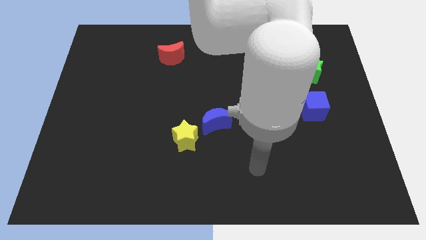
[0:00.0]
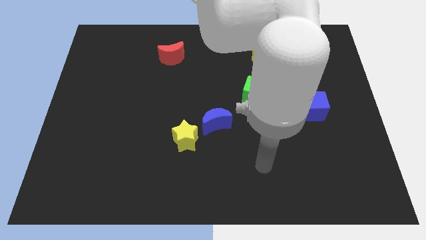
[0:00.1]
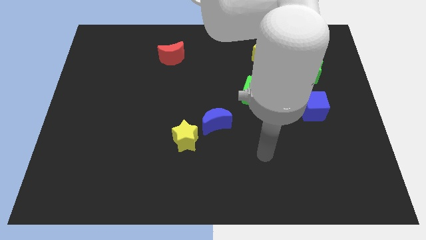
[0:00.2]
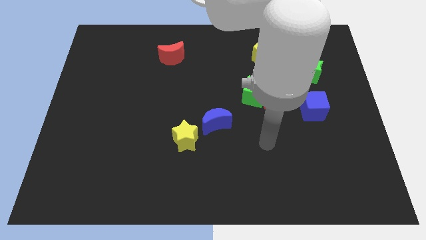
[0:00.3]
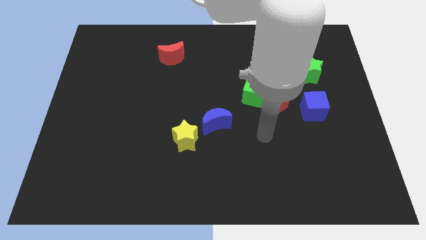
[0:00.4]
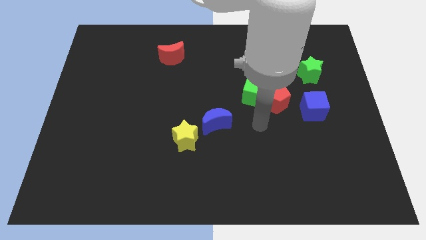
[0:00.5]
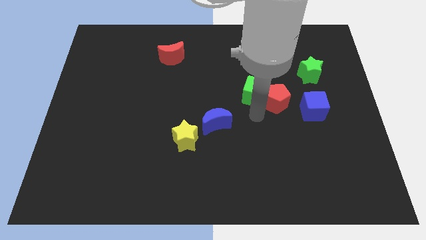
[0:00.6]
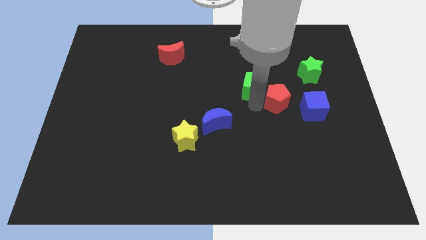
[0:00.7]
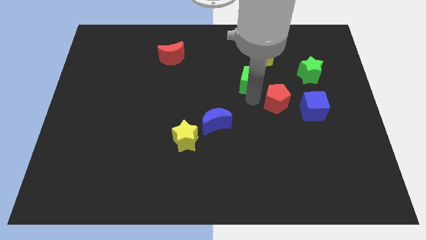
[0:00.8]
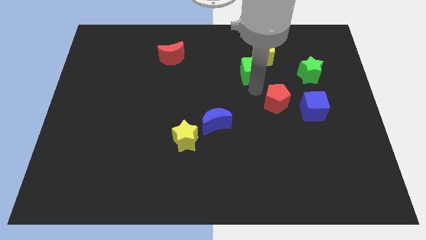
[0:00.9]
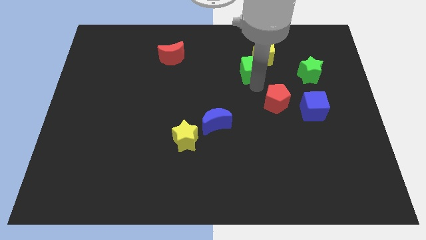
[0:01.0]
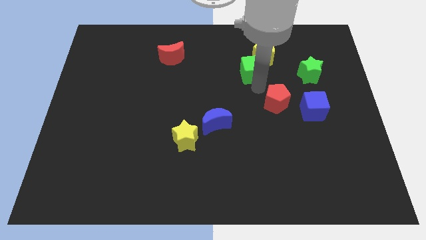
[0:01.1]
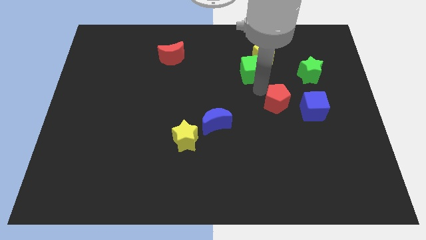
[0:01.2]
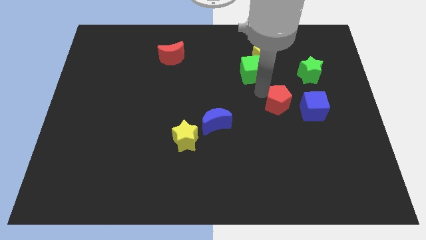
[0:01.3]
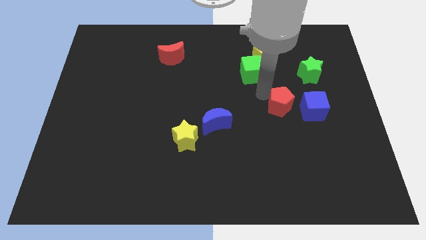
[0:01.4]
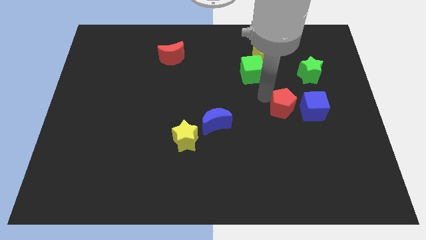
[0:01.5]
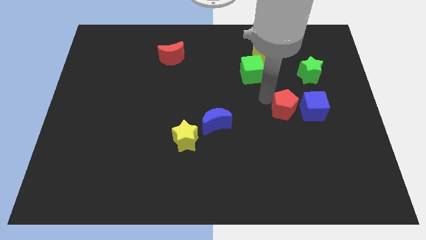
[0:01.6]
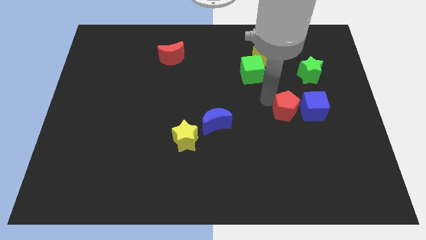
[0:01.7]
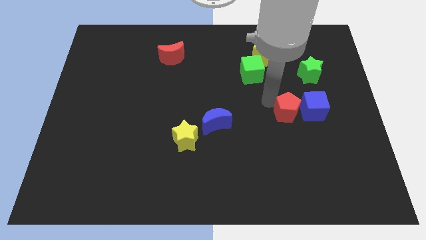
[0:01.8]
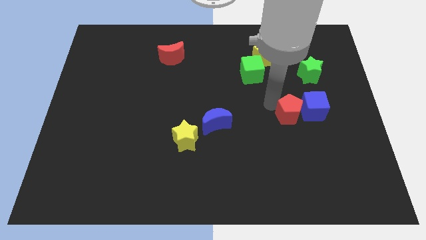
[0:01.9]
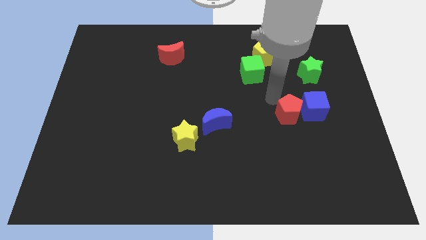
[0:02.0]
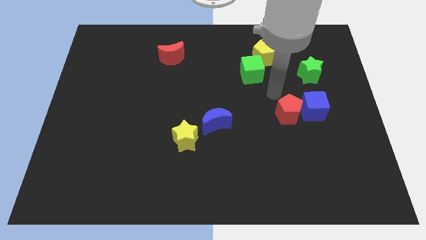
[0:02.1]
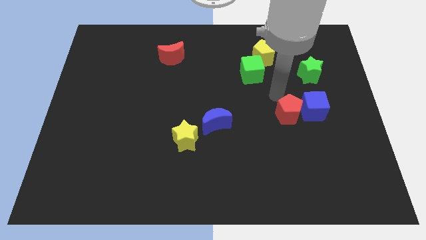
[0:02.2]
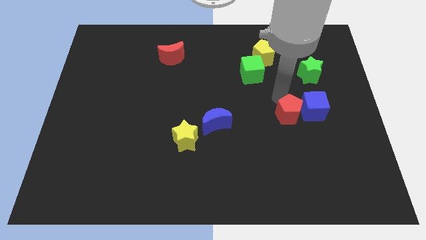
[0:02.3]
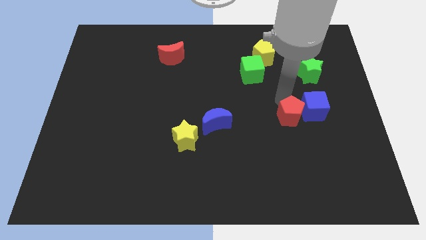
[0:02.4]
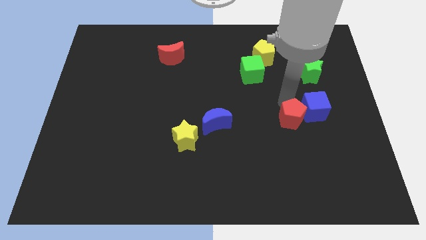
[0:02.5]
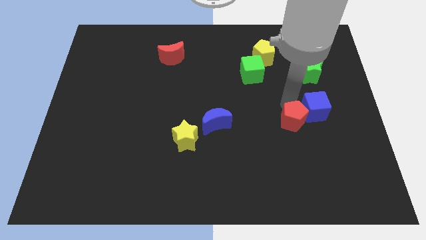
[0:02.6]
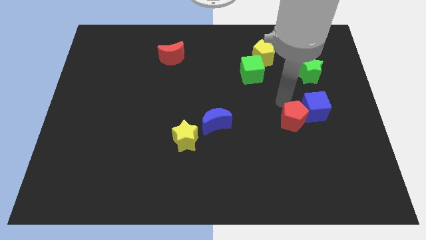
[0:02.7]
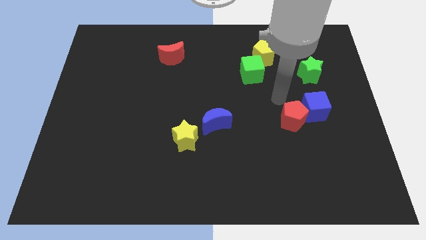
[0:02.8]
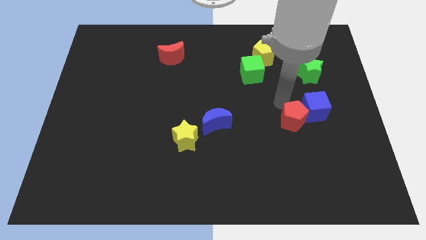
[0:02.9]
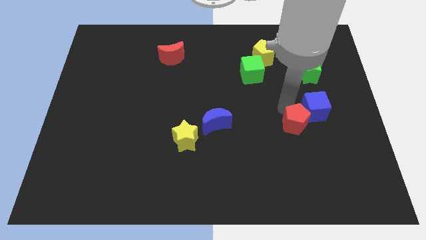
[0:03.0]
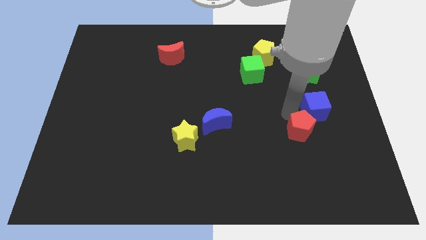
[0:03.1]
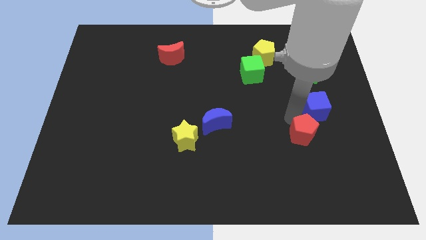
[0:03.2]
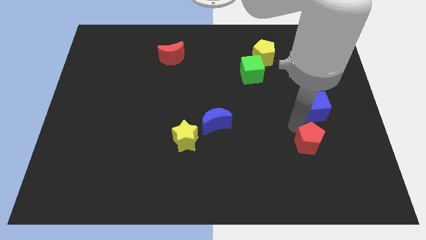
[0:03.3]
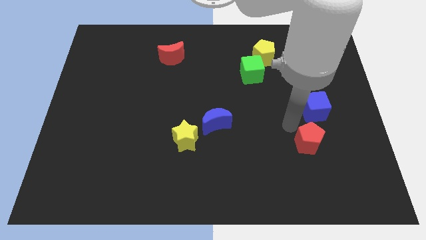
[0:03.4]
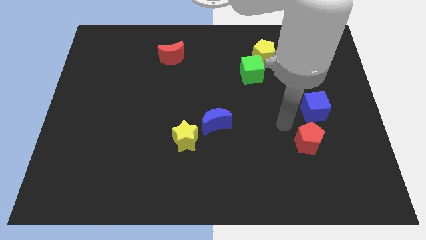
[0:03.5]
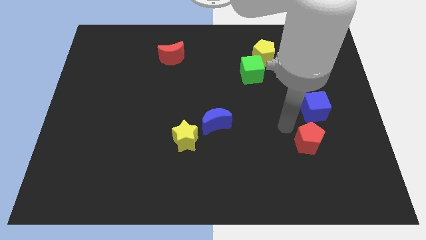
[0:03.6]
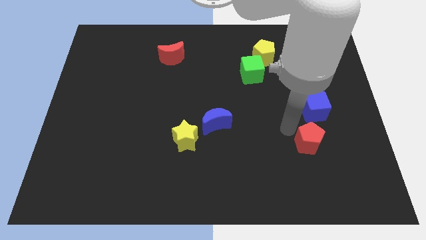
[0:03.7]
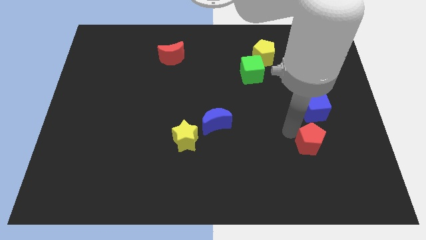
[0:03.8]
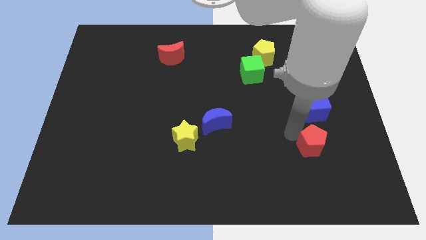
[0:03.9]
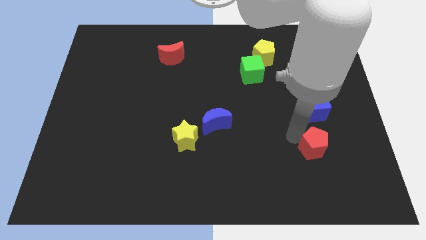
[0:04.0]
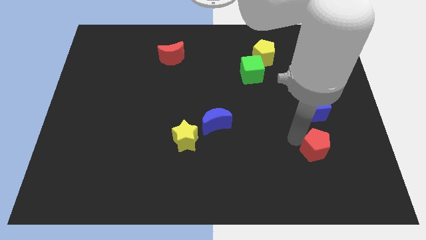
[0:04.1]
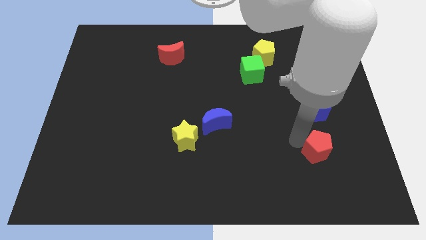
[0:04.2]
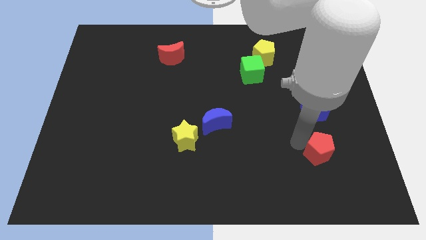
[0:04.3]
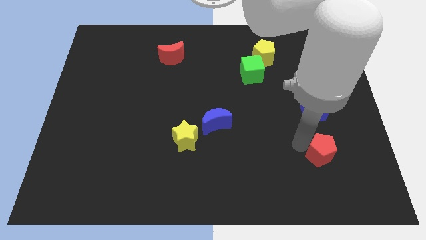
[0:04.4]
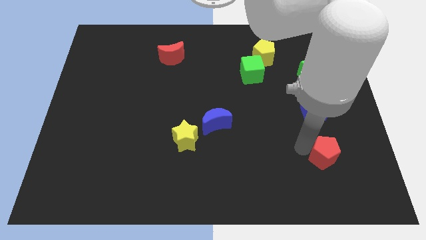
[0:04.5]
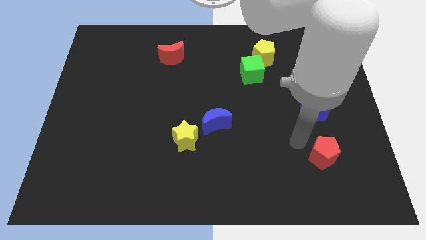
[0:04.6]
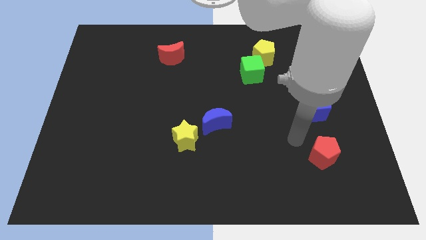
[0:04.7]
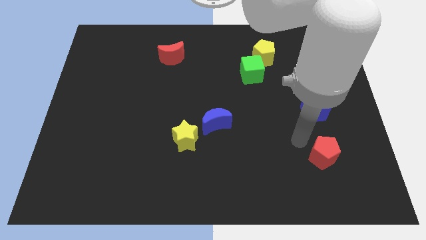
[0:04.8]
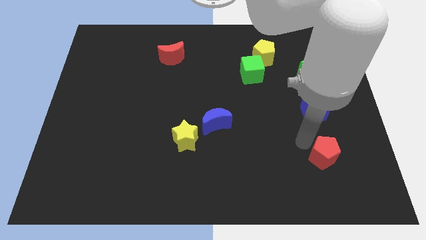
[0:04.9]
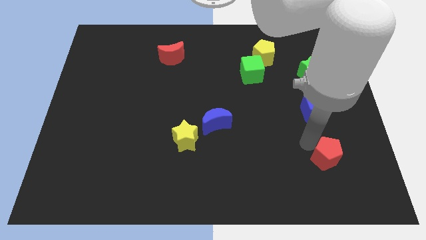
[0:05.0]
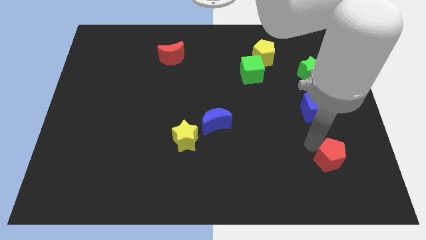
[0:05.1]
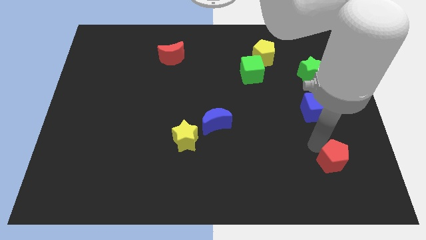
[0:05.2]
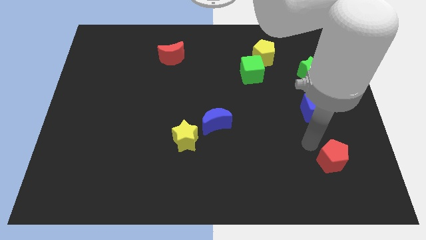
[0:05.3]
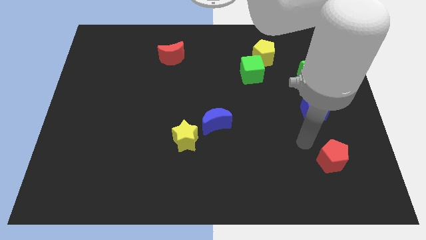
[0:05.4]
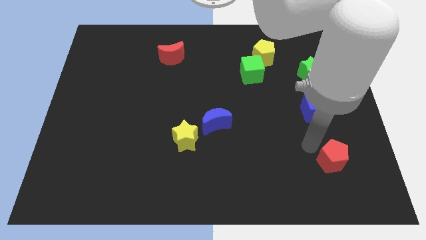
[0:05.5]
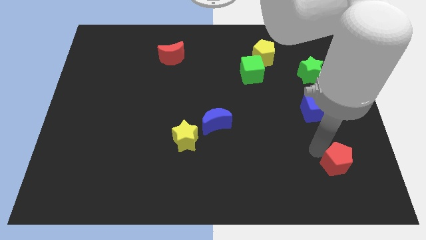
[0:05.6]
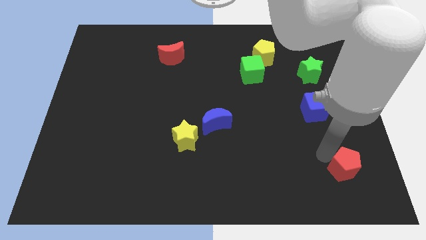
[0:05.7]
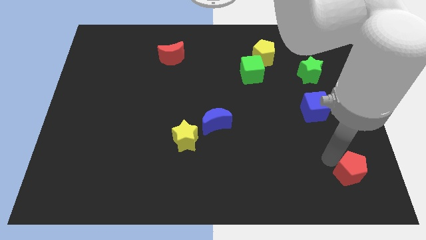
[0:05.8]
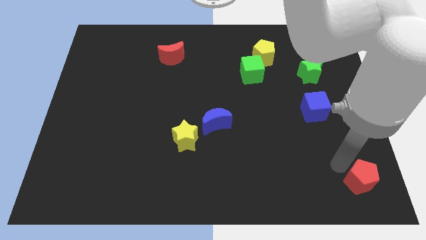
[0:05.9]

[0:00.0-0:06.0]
put the red pentagon to the lower right corner

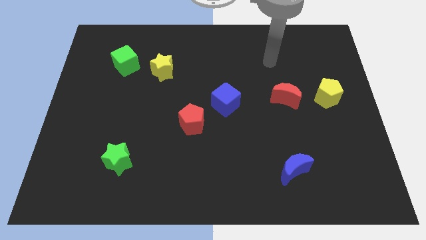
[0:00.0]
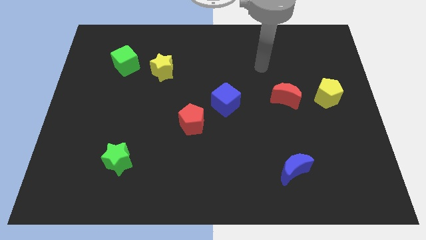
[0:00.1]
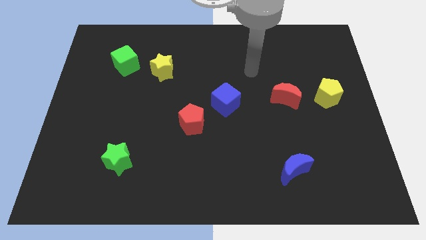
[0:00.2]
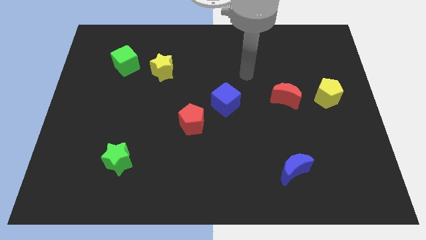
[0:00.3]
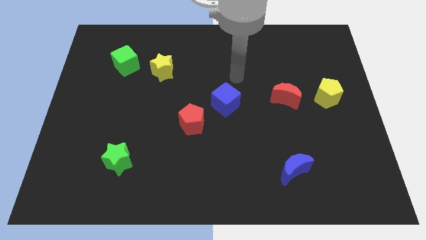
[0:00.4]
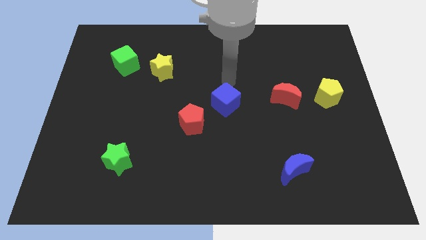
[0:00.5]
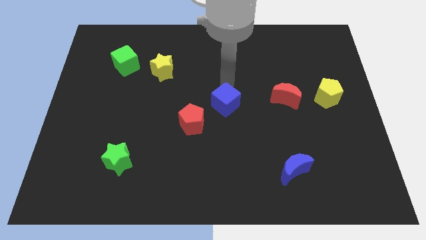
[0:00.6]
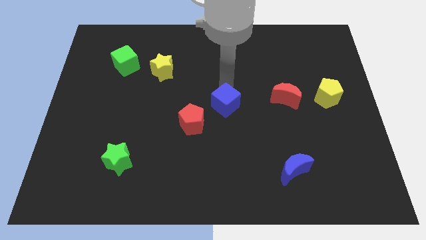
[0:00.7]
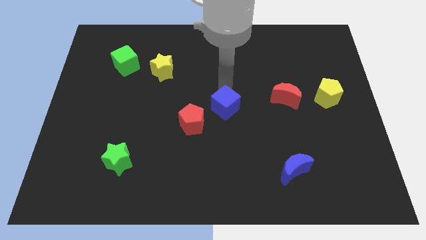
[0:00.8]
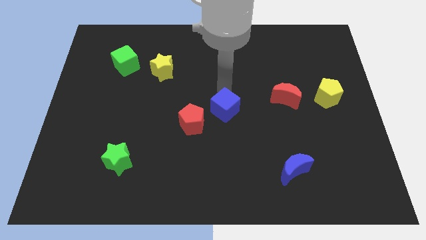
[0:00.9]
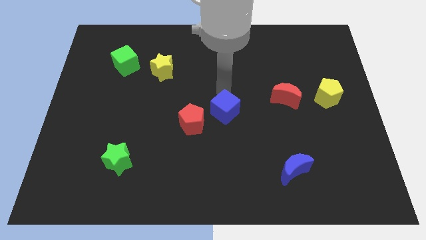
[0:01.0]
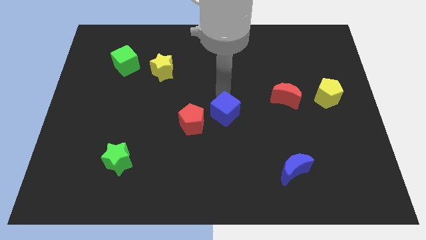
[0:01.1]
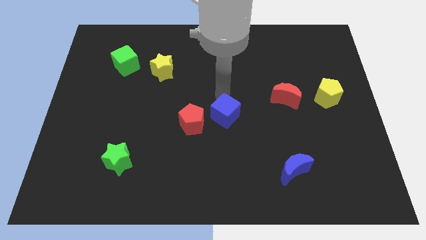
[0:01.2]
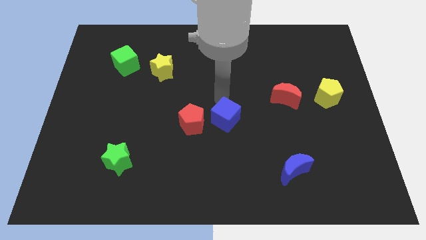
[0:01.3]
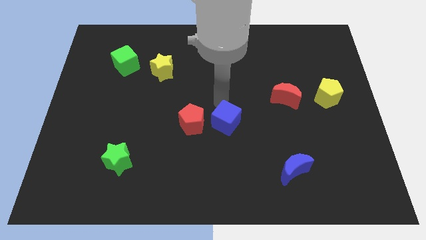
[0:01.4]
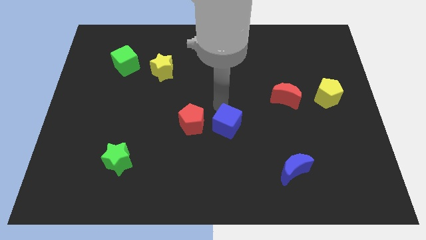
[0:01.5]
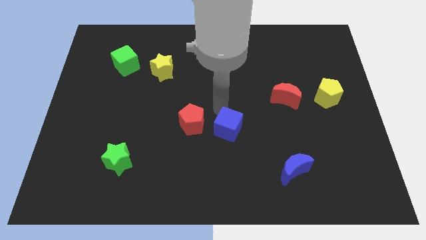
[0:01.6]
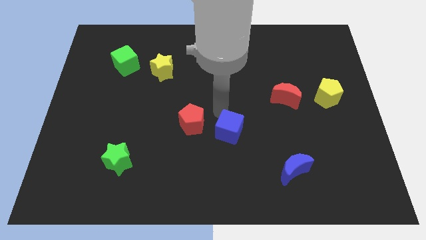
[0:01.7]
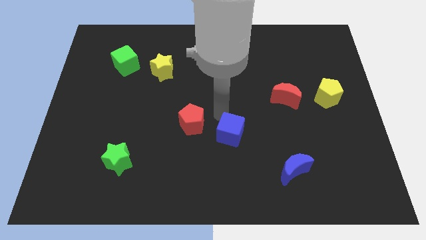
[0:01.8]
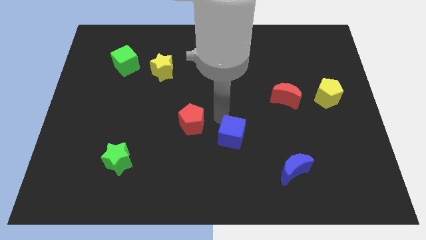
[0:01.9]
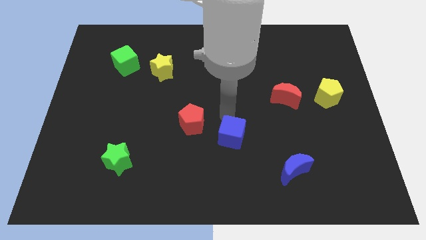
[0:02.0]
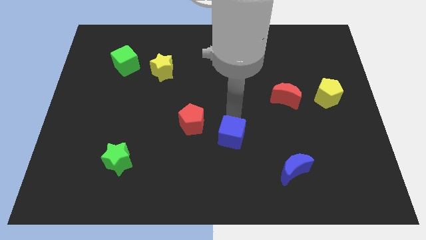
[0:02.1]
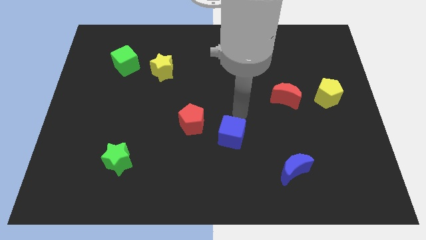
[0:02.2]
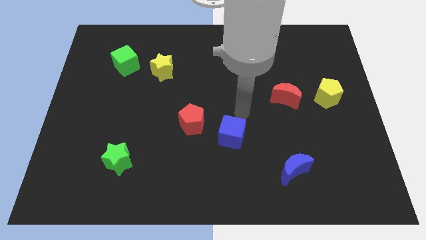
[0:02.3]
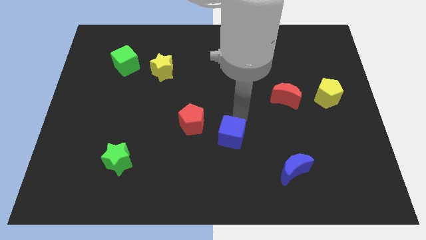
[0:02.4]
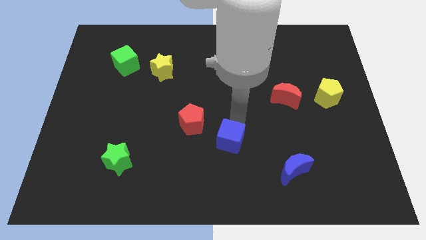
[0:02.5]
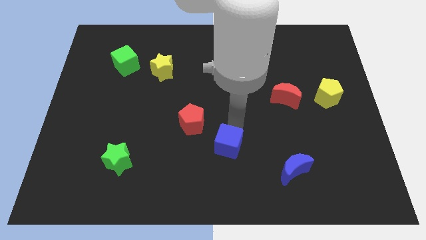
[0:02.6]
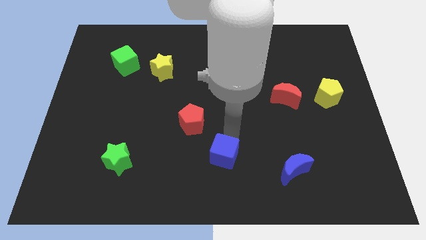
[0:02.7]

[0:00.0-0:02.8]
put the blue cube to the bottom side
